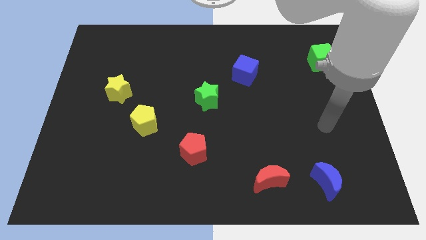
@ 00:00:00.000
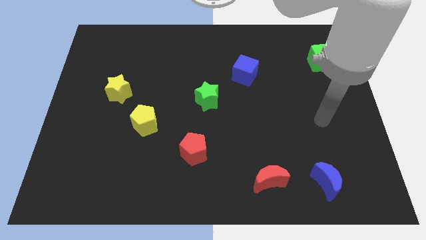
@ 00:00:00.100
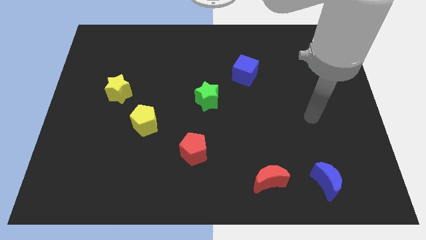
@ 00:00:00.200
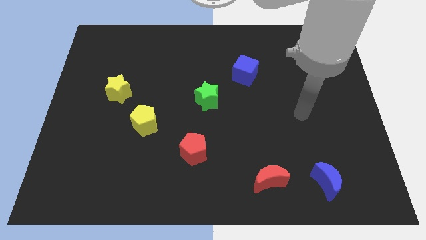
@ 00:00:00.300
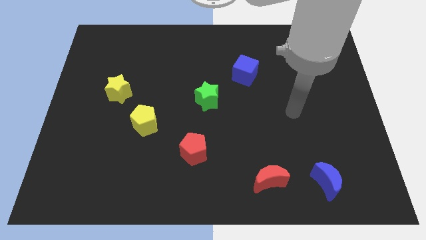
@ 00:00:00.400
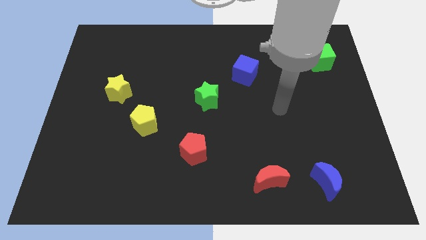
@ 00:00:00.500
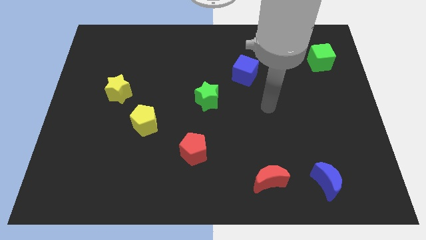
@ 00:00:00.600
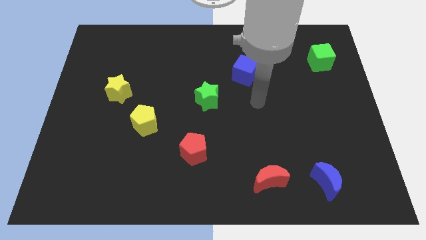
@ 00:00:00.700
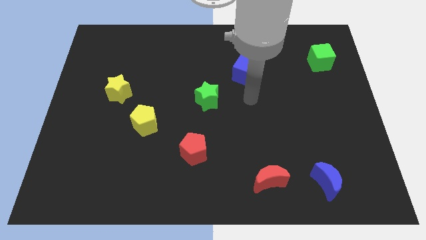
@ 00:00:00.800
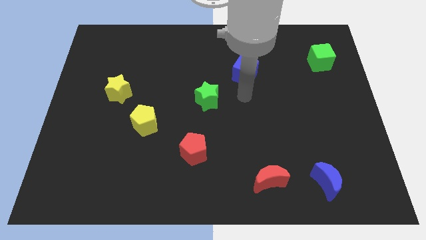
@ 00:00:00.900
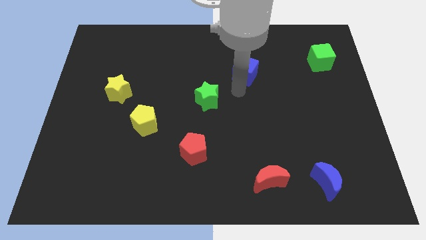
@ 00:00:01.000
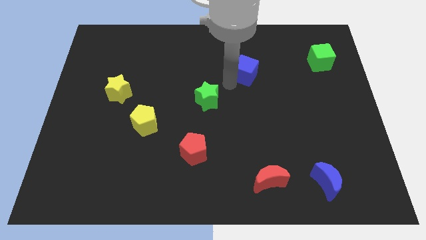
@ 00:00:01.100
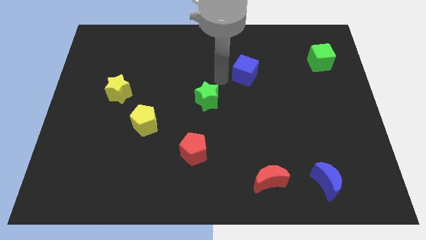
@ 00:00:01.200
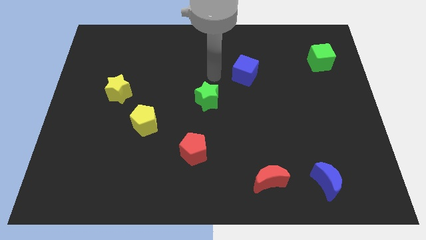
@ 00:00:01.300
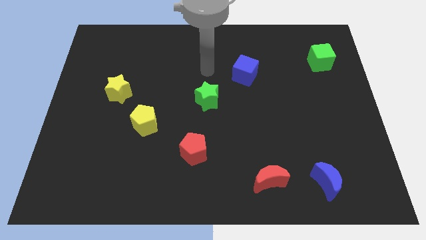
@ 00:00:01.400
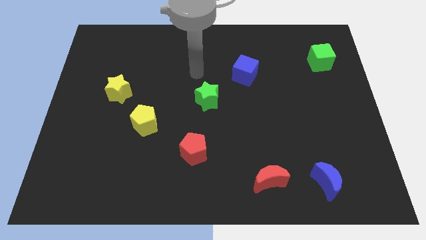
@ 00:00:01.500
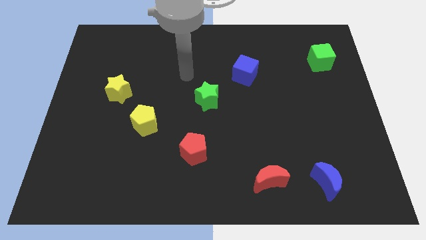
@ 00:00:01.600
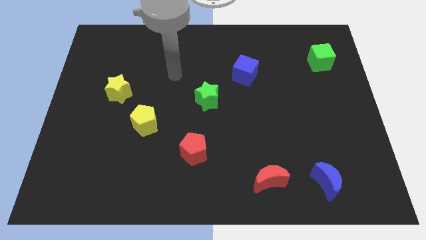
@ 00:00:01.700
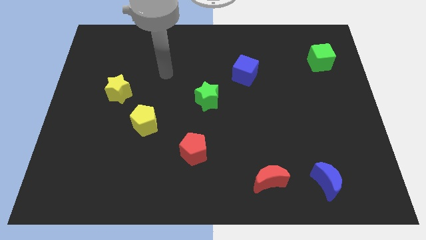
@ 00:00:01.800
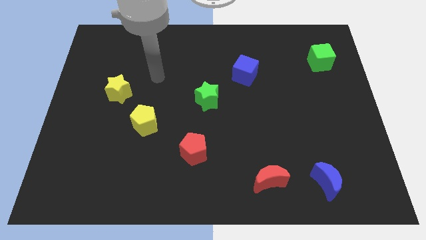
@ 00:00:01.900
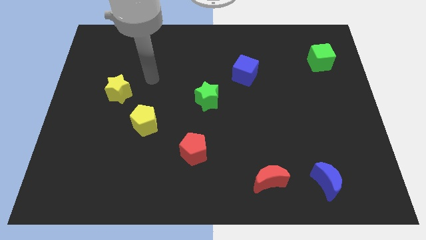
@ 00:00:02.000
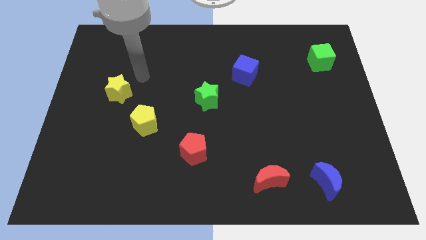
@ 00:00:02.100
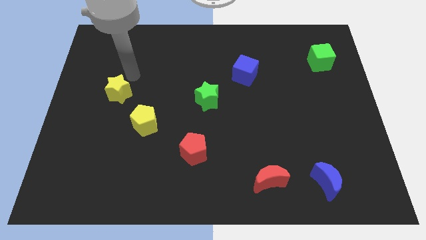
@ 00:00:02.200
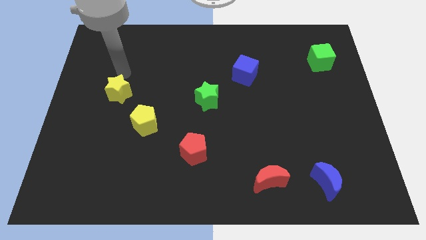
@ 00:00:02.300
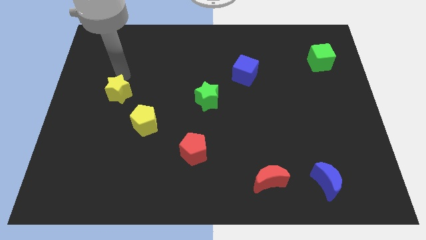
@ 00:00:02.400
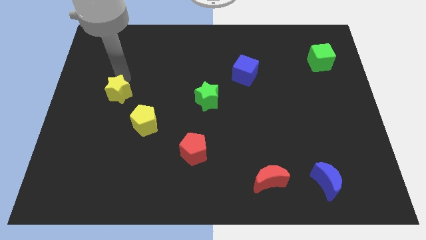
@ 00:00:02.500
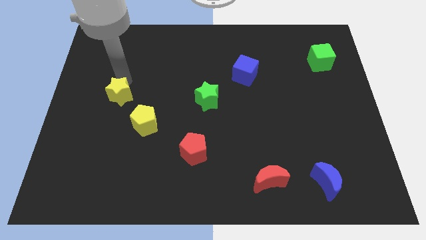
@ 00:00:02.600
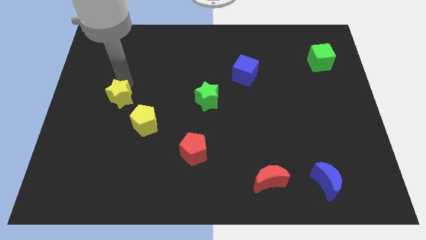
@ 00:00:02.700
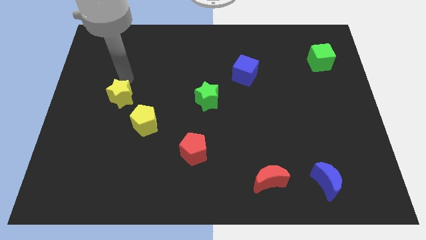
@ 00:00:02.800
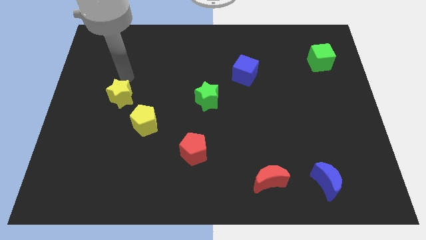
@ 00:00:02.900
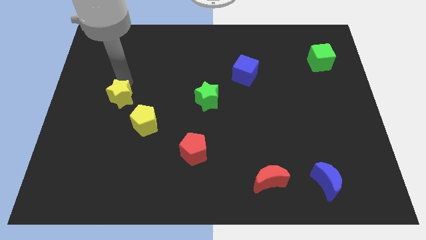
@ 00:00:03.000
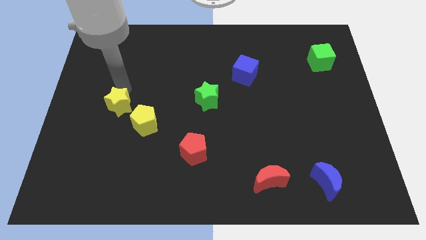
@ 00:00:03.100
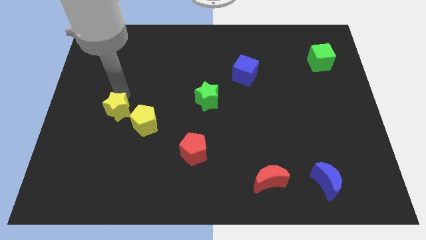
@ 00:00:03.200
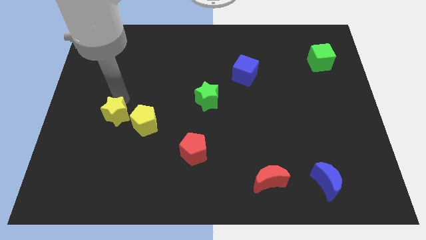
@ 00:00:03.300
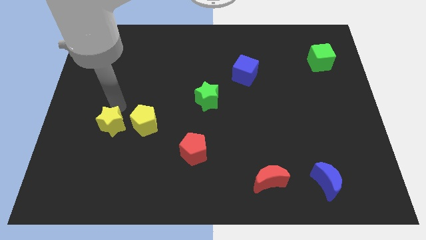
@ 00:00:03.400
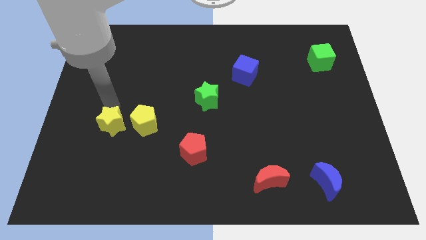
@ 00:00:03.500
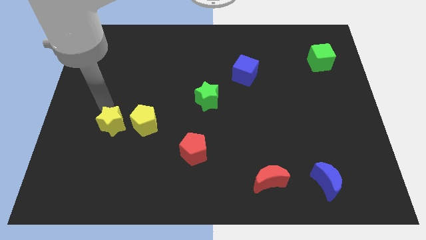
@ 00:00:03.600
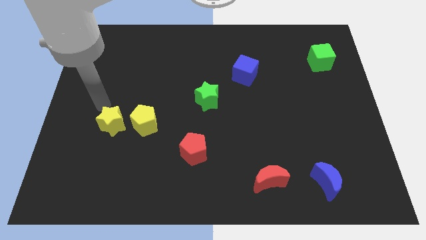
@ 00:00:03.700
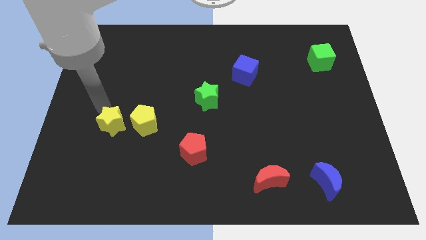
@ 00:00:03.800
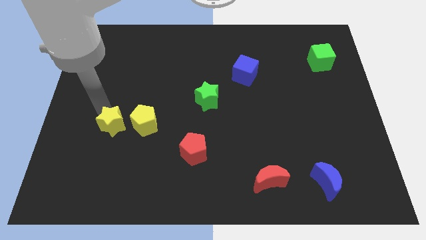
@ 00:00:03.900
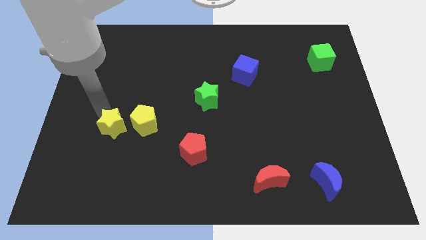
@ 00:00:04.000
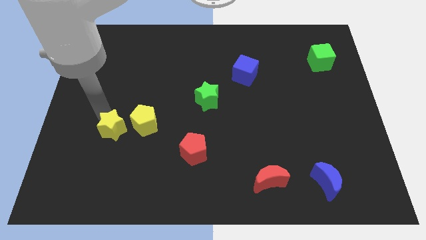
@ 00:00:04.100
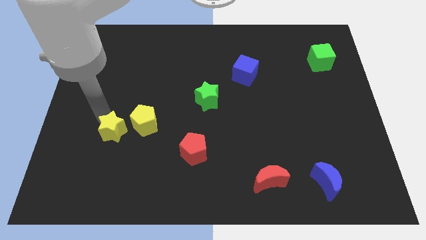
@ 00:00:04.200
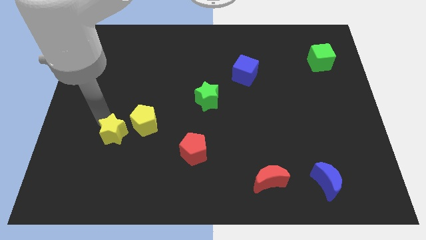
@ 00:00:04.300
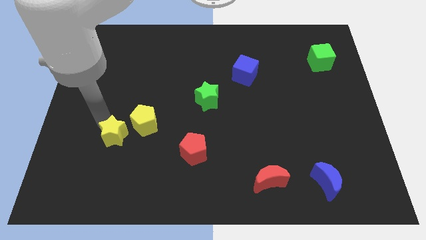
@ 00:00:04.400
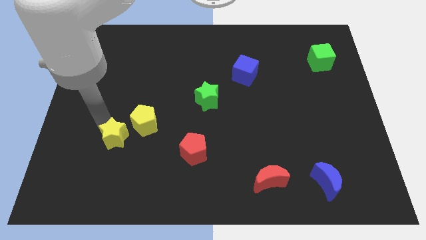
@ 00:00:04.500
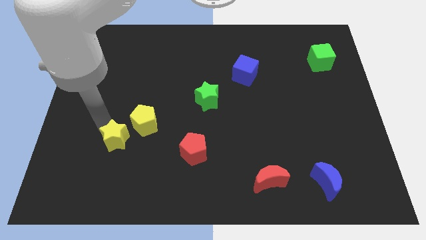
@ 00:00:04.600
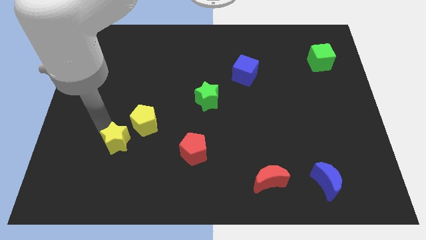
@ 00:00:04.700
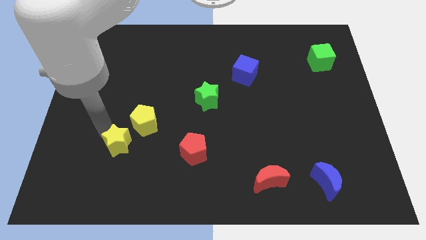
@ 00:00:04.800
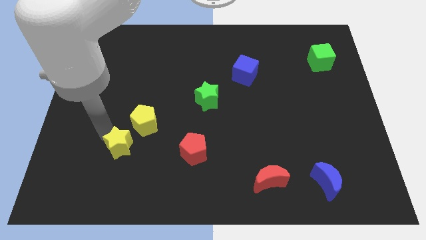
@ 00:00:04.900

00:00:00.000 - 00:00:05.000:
put the yellow star to the left side of the red pentagon

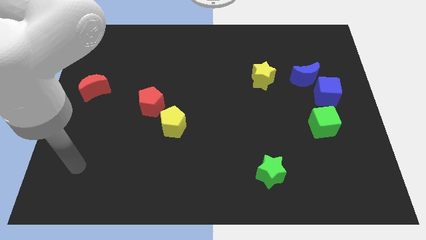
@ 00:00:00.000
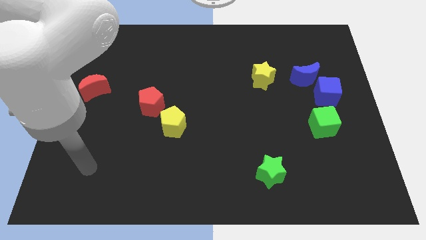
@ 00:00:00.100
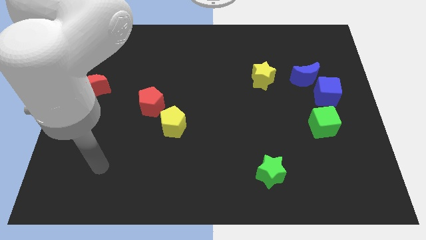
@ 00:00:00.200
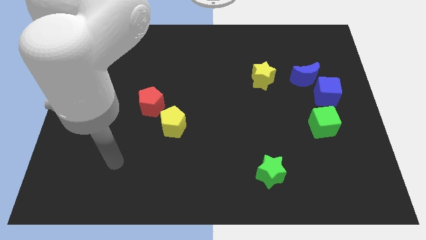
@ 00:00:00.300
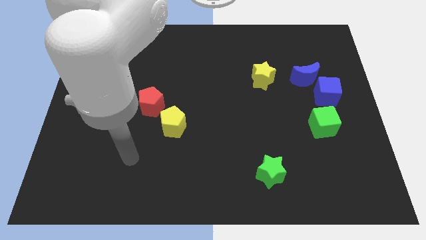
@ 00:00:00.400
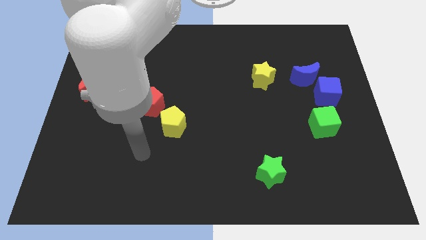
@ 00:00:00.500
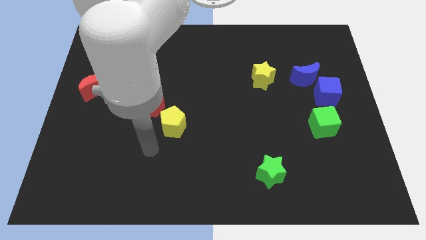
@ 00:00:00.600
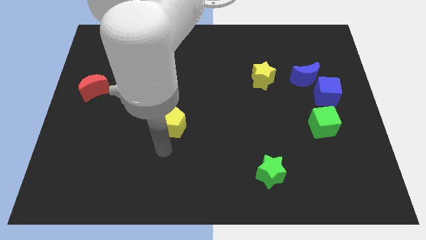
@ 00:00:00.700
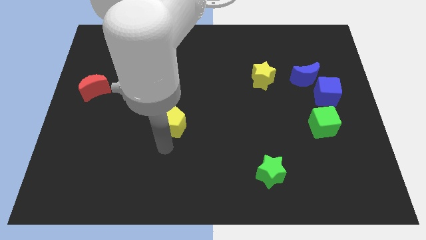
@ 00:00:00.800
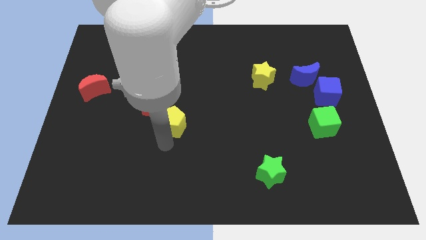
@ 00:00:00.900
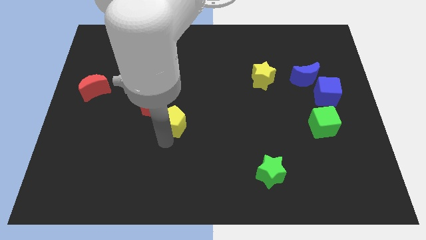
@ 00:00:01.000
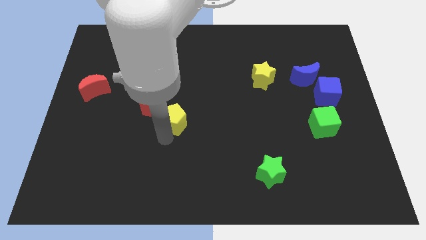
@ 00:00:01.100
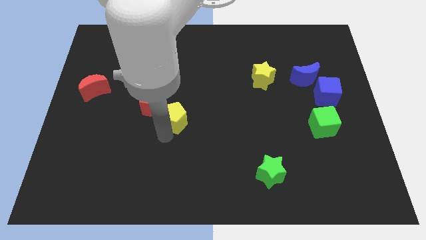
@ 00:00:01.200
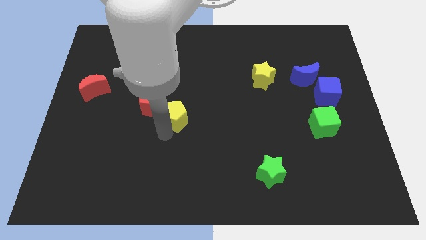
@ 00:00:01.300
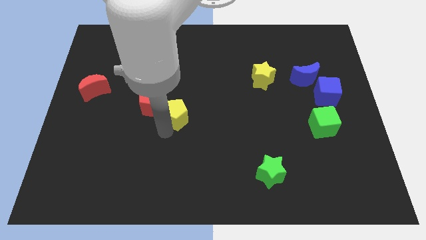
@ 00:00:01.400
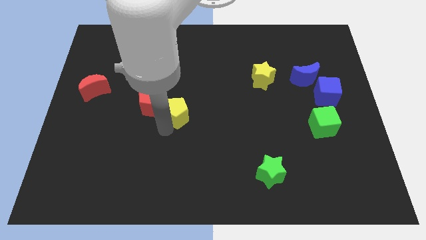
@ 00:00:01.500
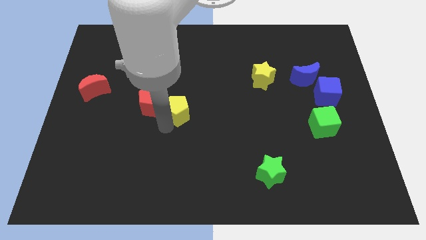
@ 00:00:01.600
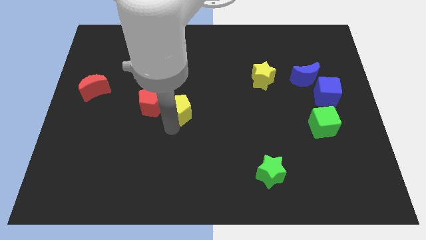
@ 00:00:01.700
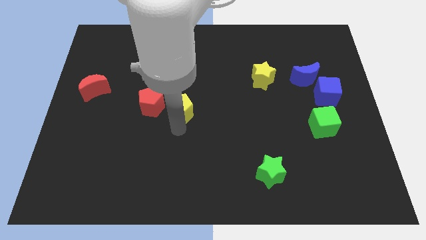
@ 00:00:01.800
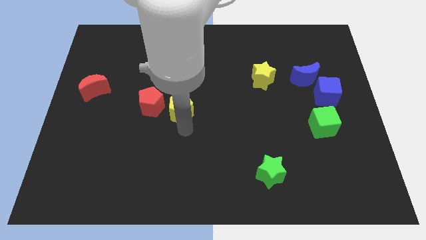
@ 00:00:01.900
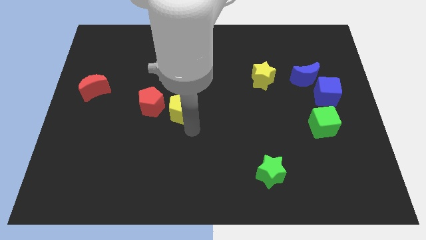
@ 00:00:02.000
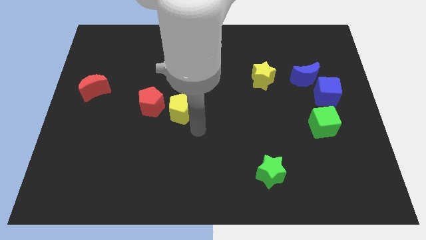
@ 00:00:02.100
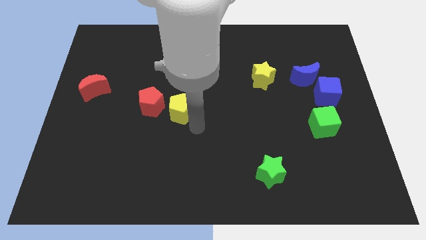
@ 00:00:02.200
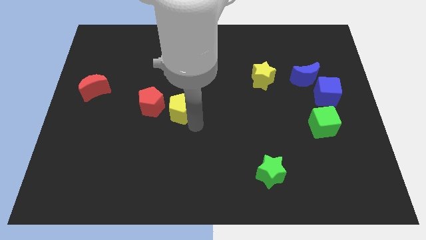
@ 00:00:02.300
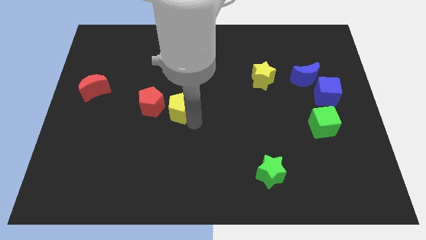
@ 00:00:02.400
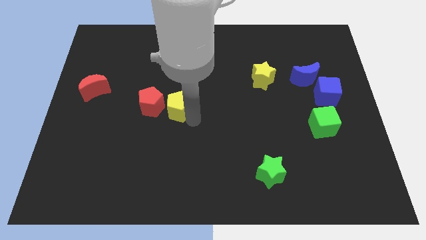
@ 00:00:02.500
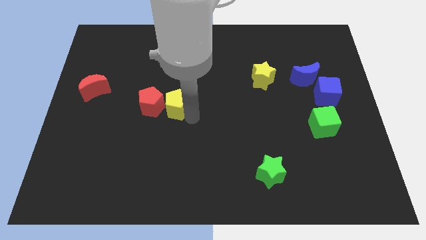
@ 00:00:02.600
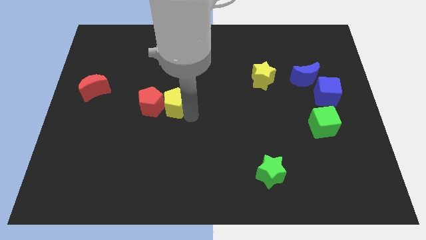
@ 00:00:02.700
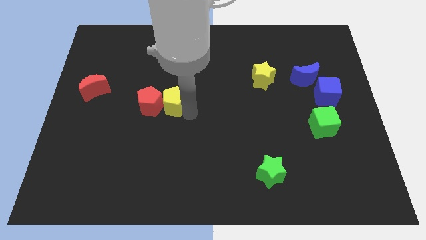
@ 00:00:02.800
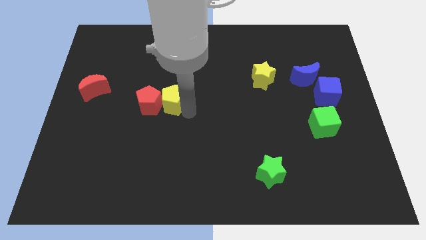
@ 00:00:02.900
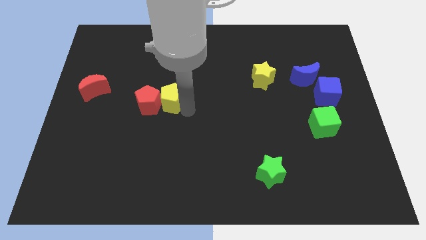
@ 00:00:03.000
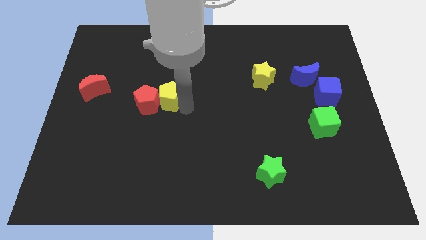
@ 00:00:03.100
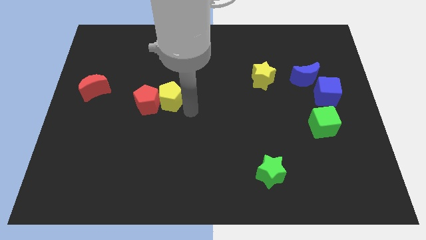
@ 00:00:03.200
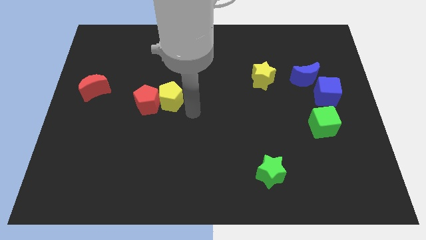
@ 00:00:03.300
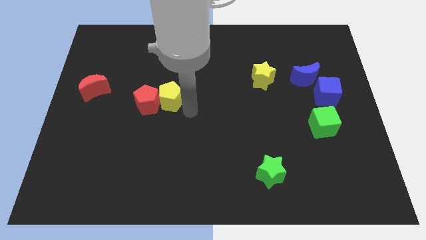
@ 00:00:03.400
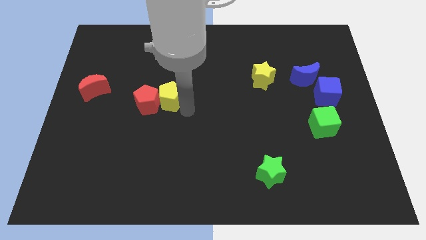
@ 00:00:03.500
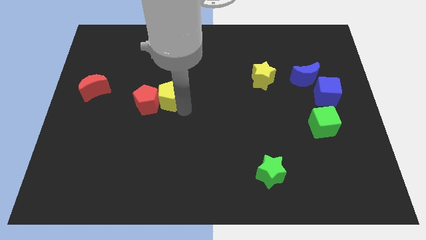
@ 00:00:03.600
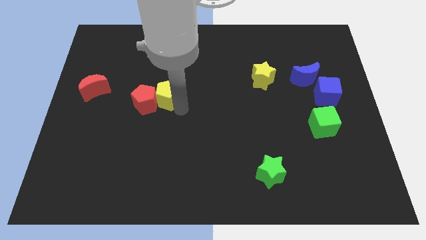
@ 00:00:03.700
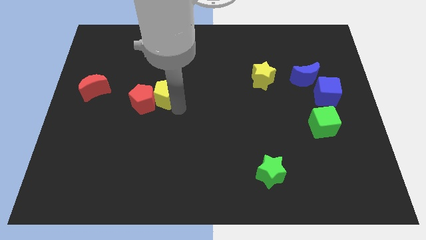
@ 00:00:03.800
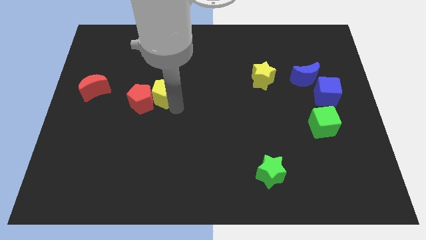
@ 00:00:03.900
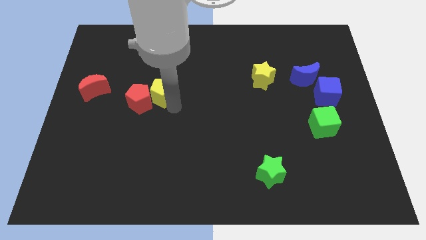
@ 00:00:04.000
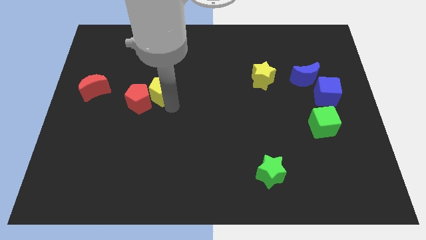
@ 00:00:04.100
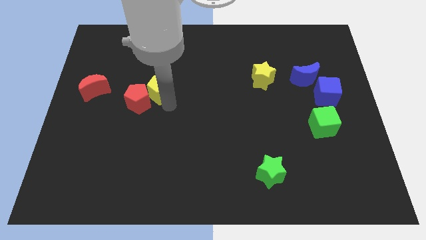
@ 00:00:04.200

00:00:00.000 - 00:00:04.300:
slide the yellow pentagon just right of the red moon
